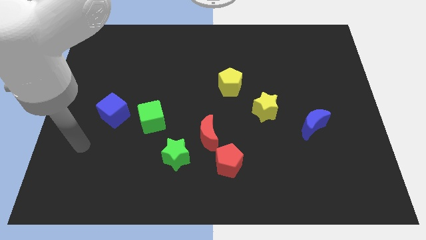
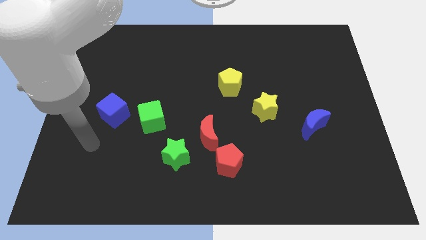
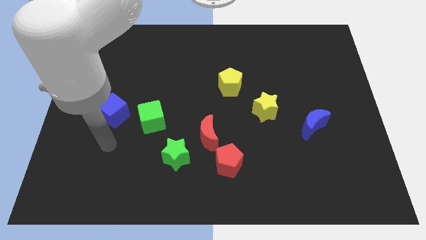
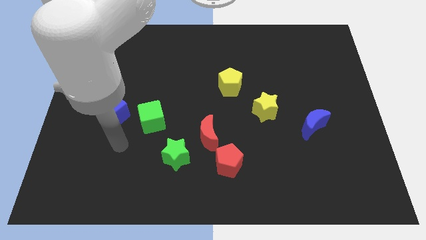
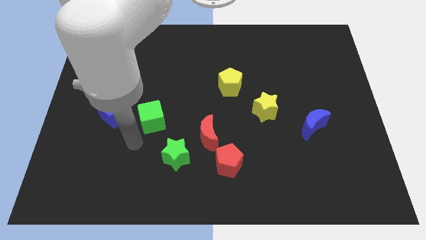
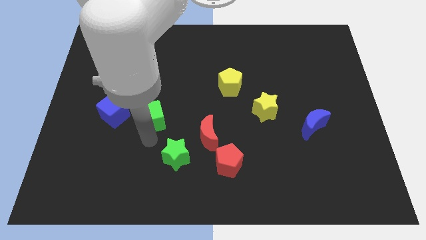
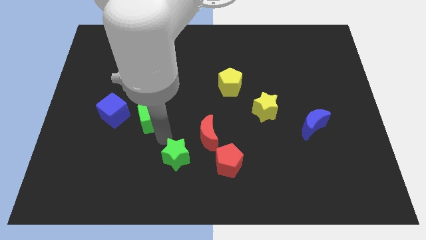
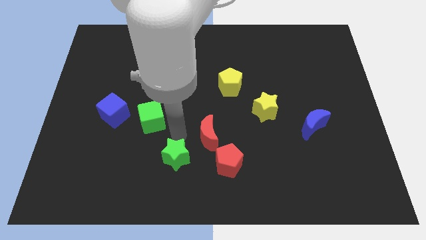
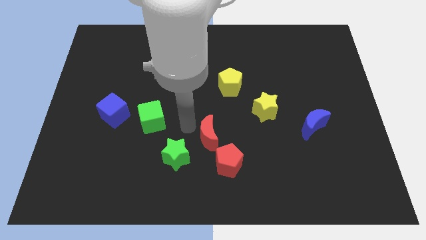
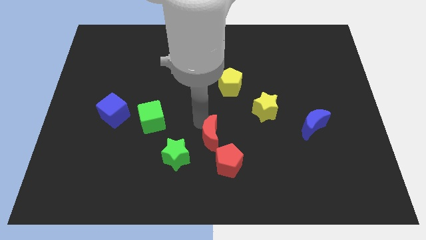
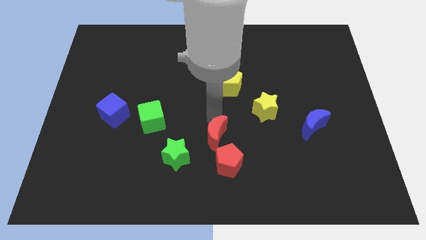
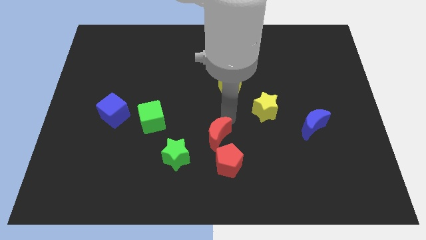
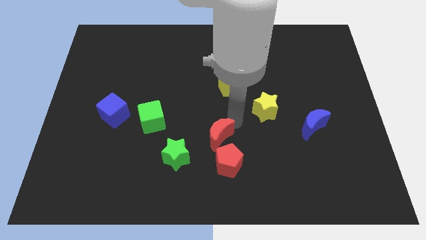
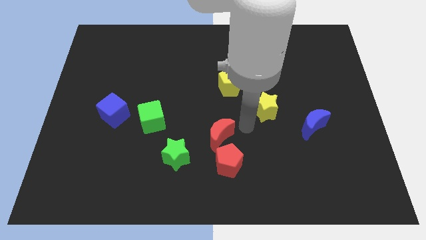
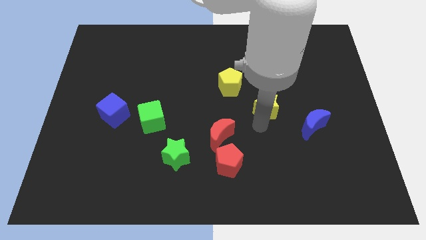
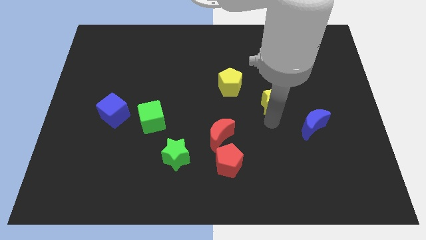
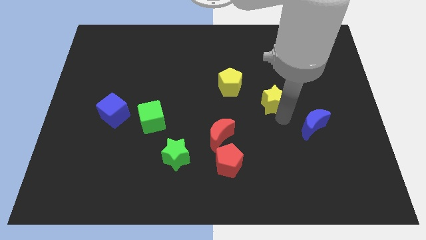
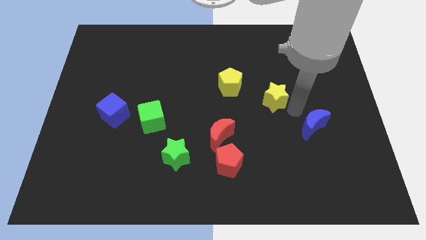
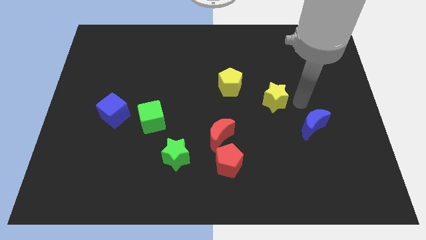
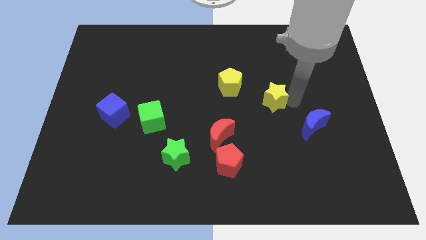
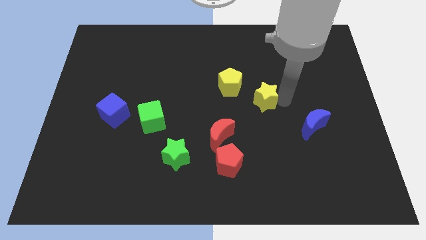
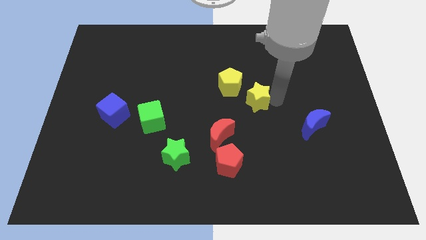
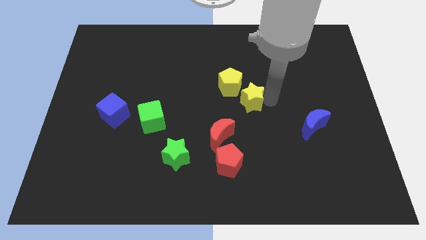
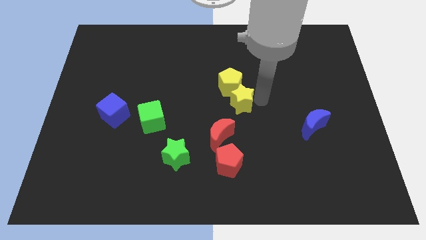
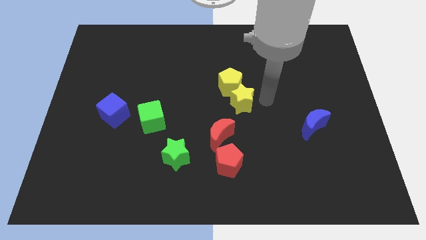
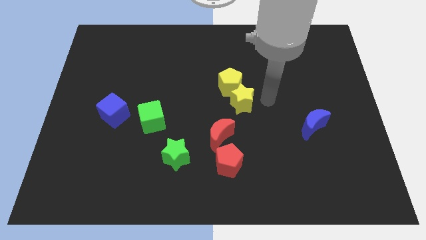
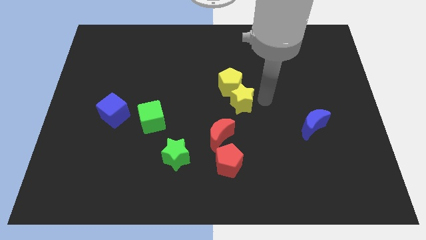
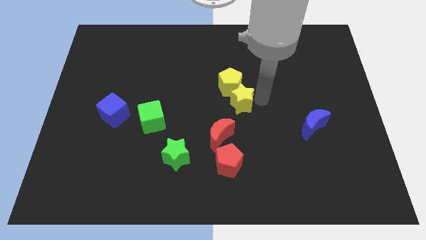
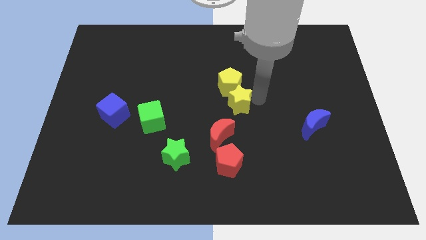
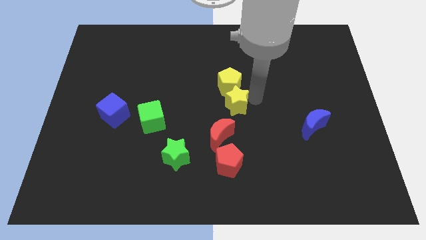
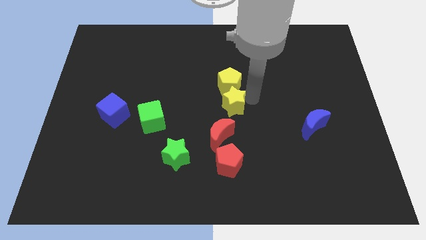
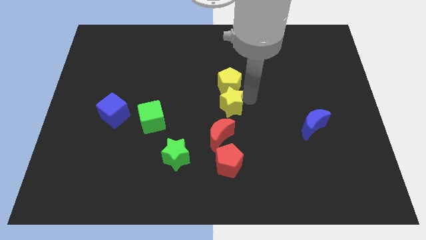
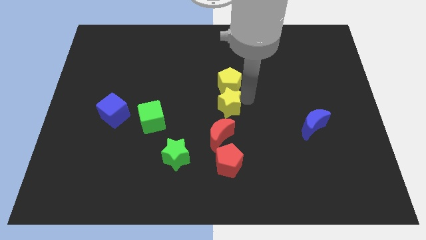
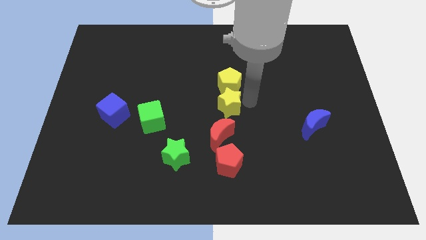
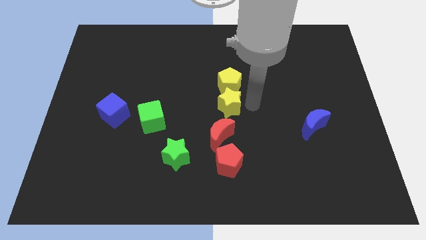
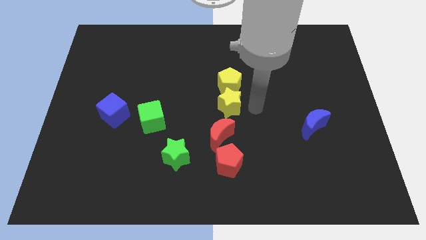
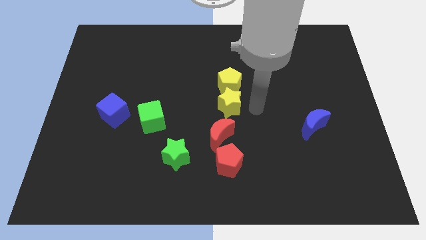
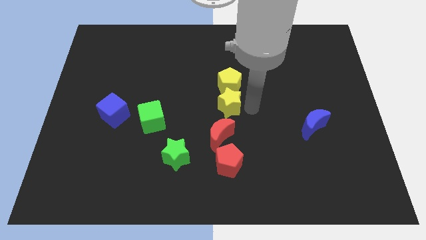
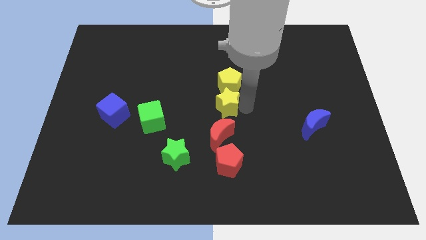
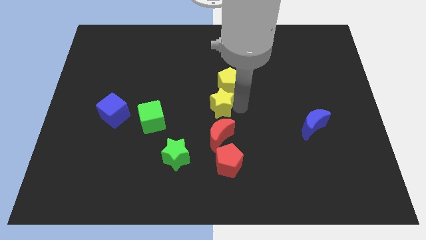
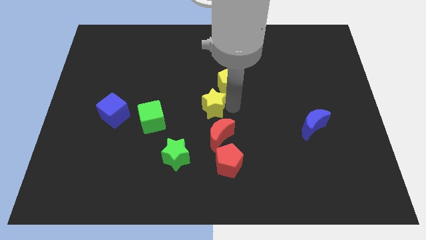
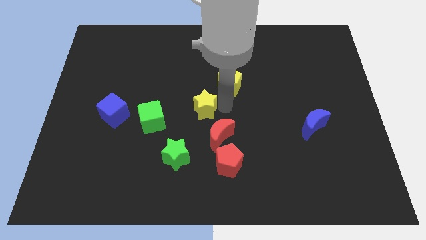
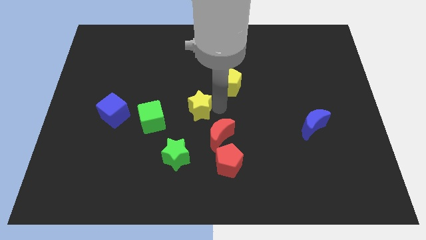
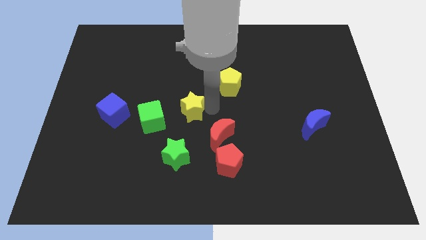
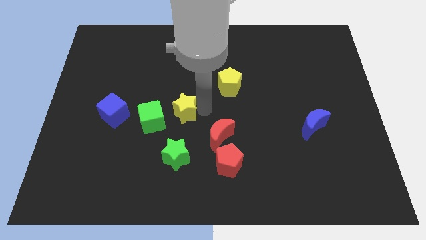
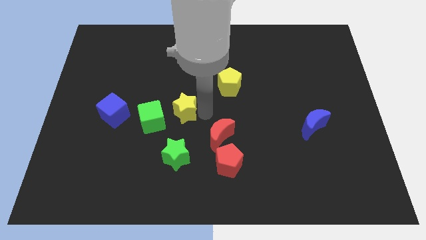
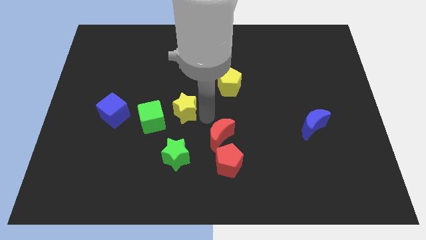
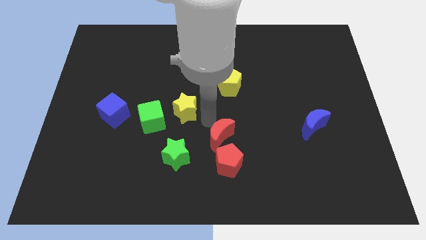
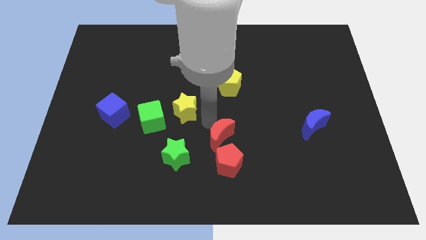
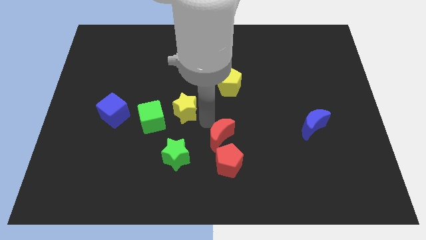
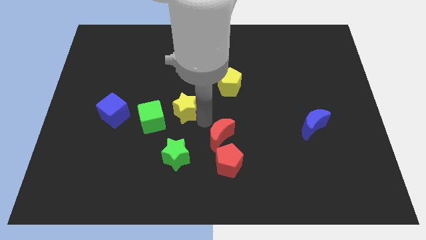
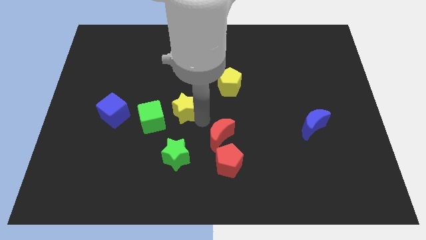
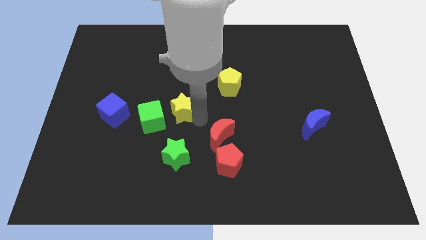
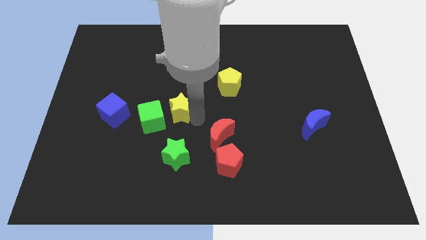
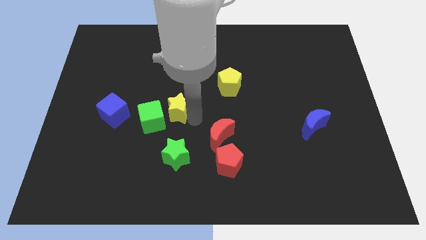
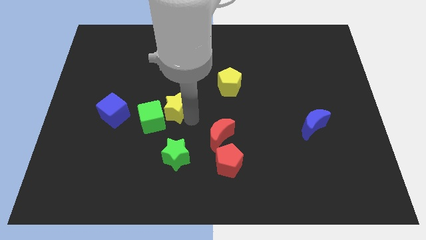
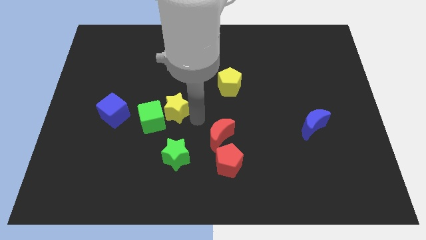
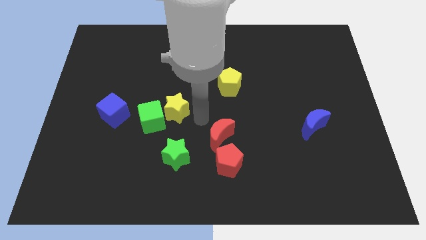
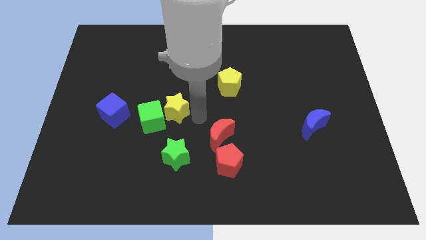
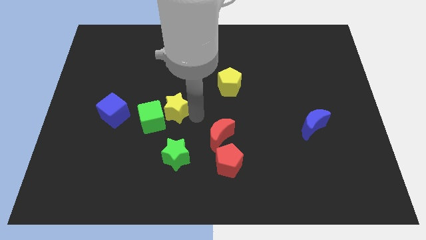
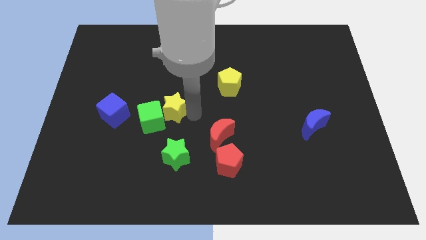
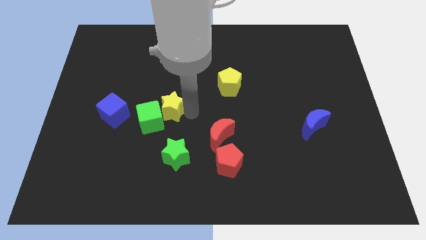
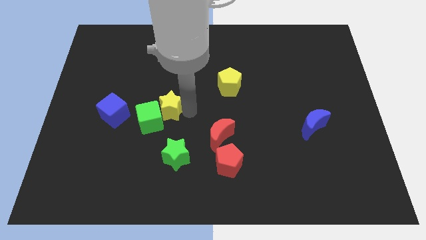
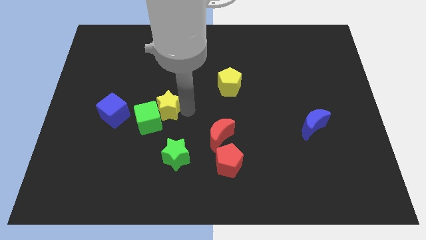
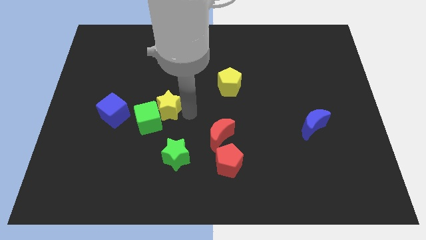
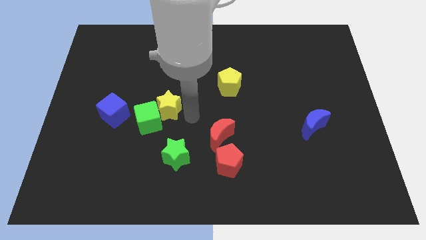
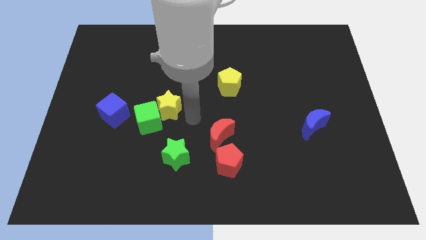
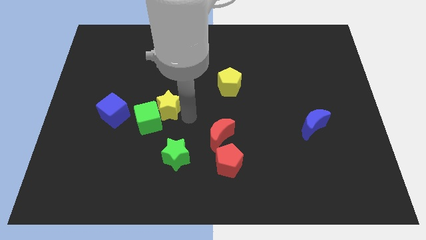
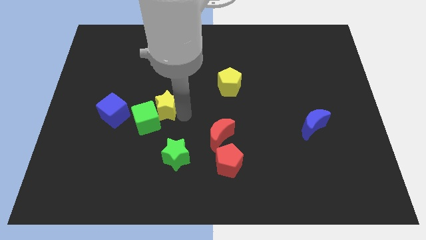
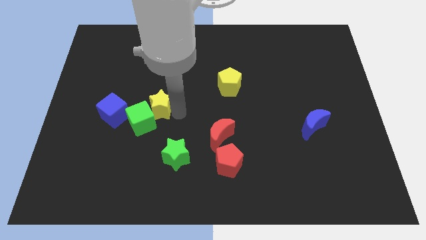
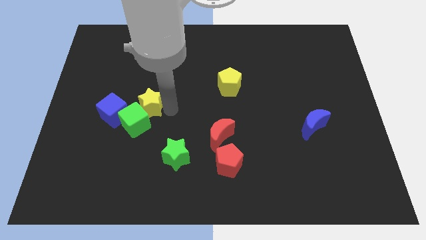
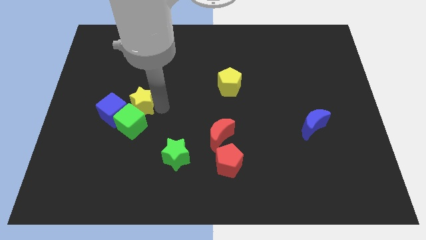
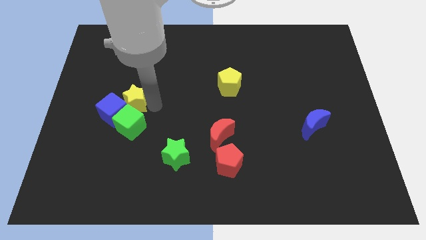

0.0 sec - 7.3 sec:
slide the yellow star to the top left of the green cube

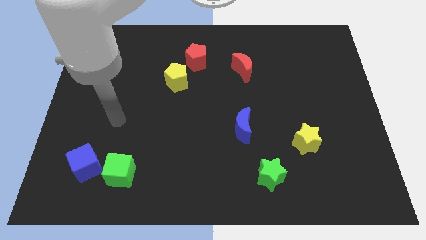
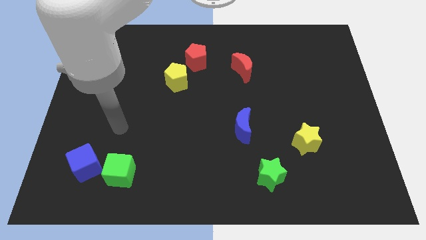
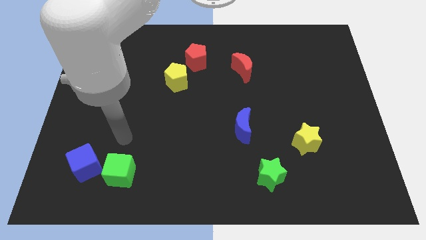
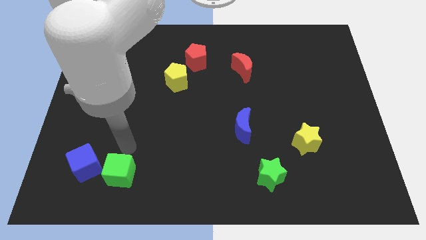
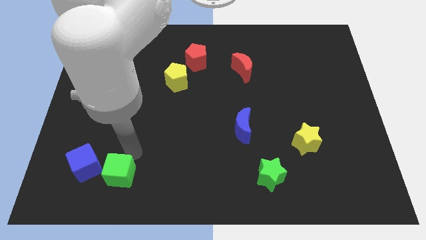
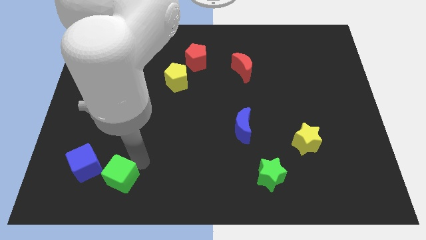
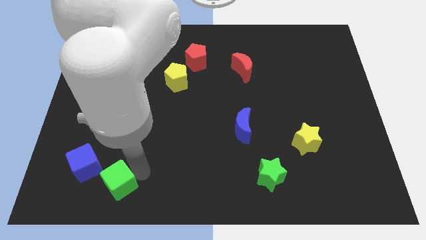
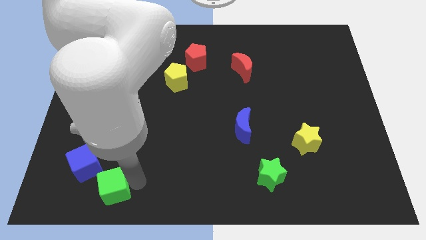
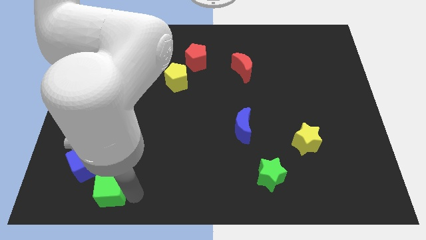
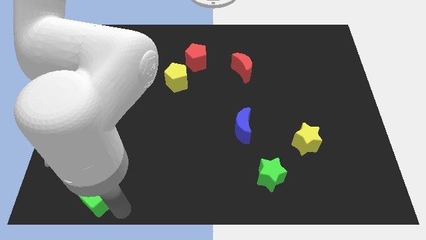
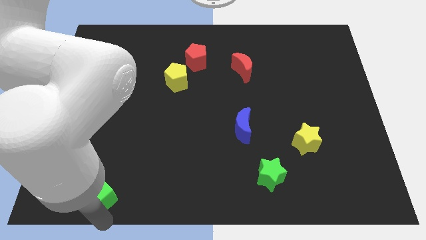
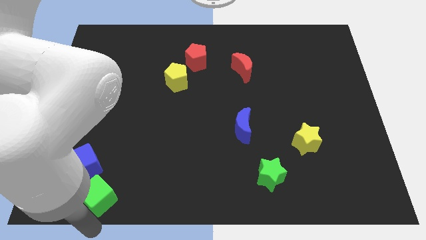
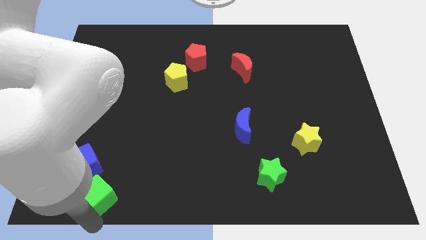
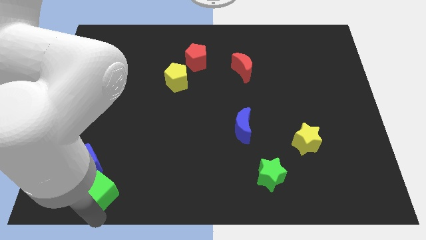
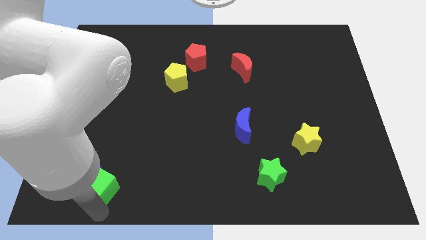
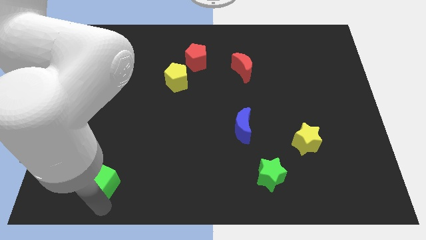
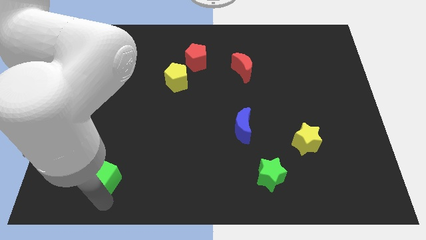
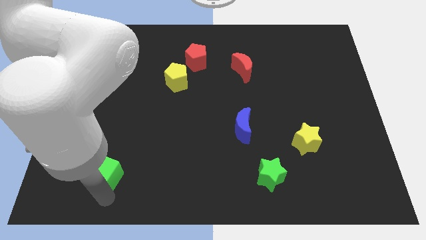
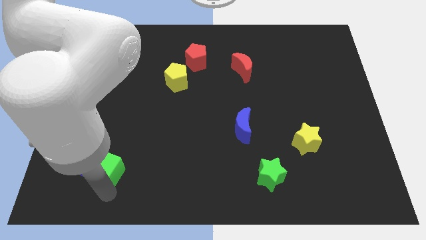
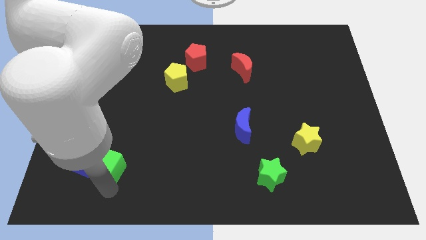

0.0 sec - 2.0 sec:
slide the green cube diagonally up and to the right of the blue cube
